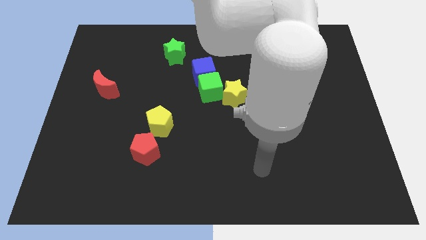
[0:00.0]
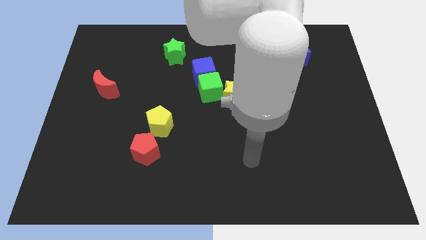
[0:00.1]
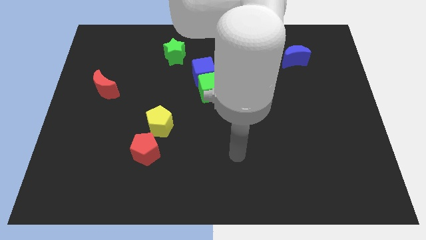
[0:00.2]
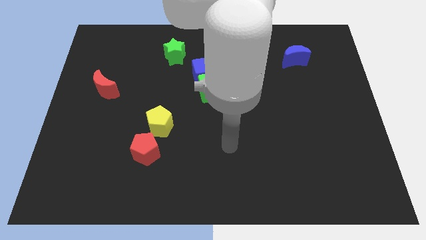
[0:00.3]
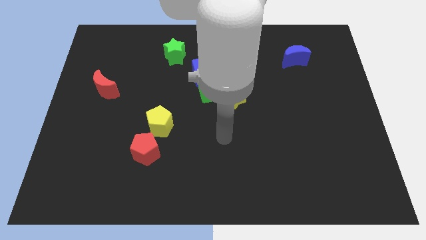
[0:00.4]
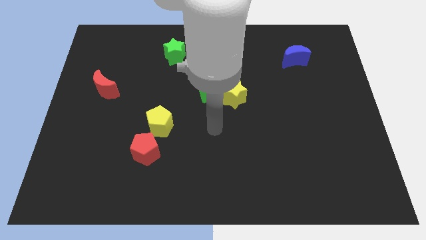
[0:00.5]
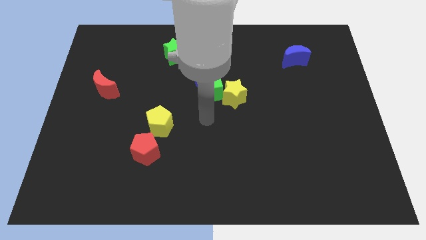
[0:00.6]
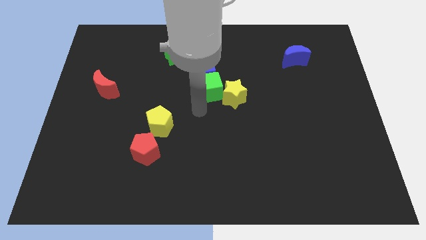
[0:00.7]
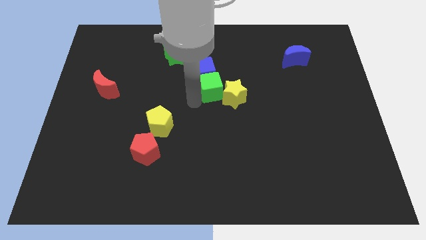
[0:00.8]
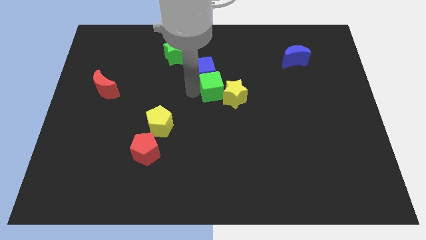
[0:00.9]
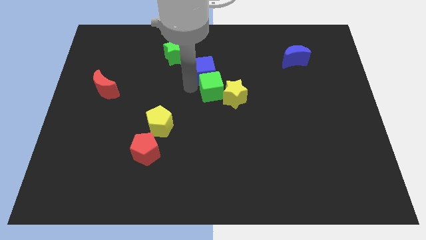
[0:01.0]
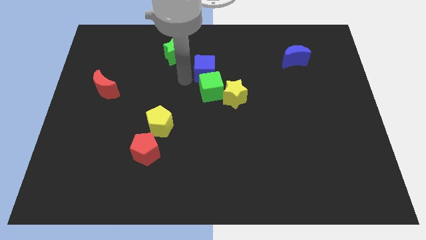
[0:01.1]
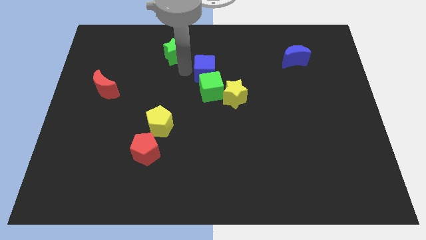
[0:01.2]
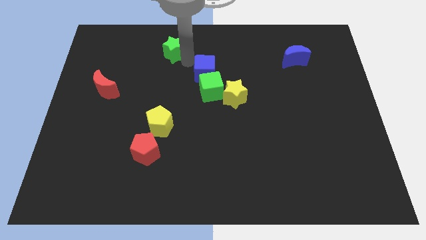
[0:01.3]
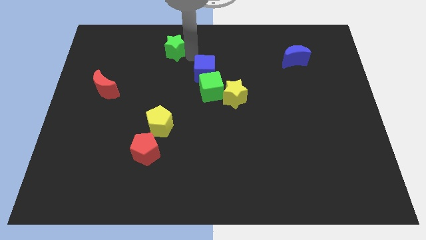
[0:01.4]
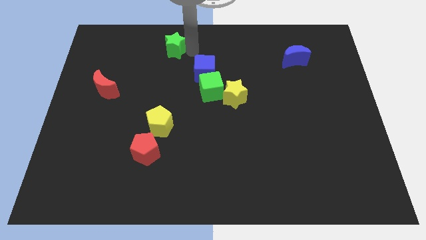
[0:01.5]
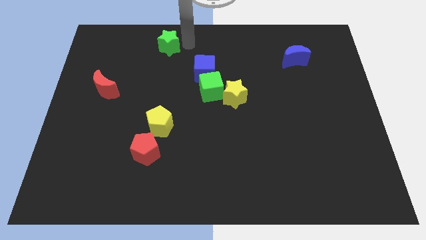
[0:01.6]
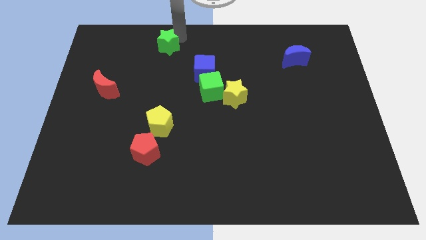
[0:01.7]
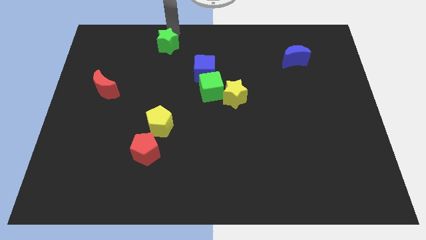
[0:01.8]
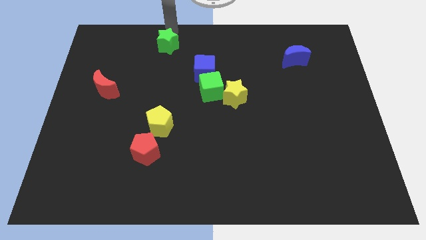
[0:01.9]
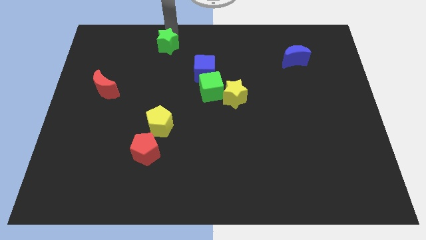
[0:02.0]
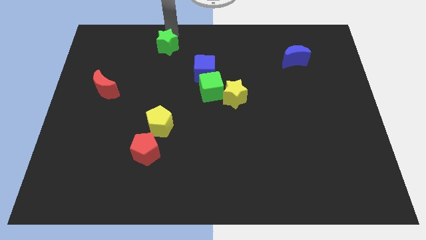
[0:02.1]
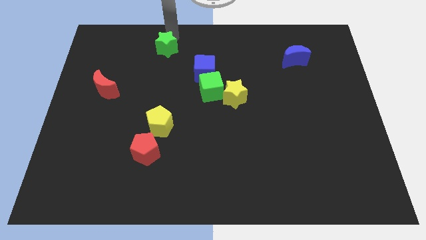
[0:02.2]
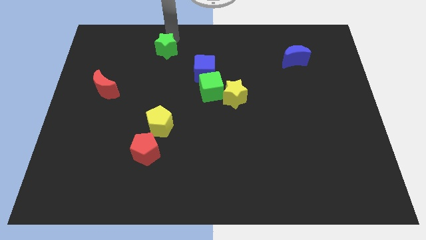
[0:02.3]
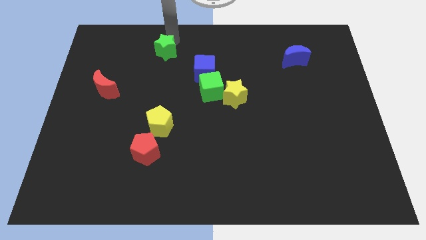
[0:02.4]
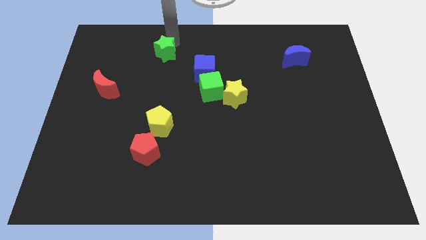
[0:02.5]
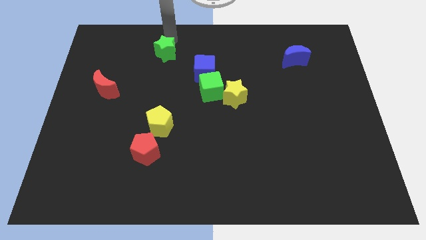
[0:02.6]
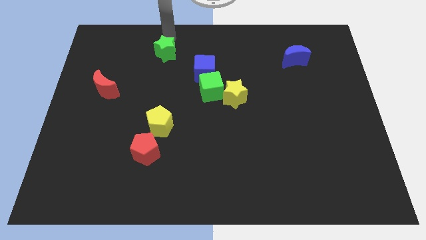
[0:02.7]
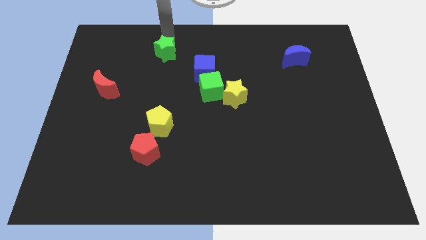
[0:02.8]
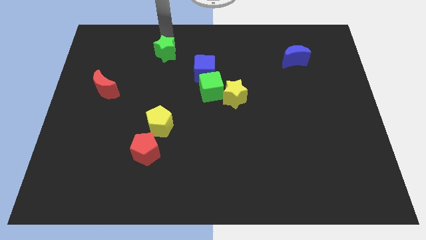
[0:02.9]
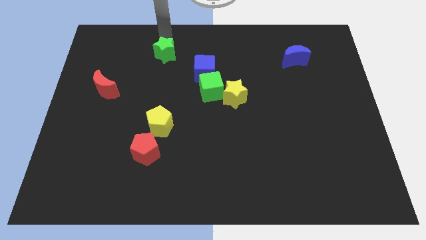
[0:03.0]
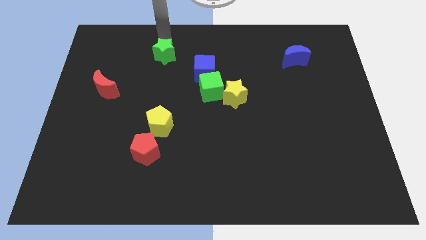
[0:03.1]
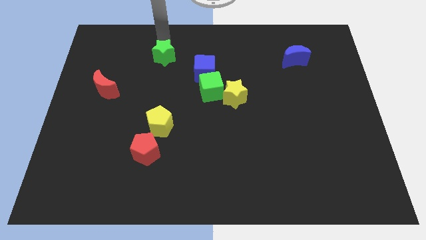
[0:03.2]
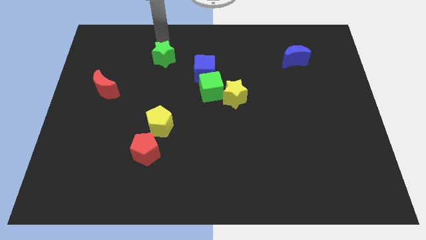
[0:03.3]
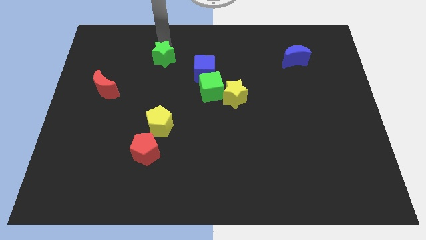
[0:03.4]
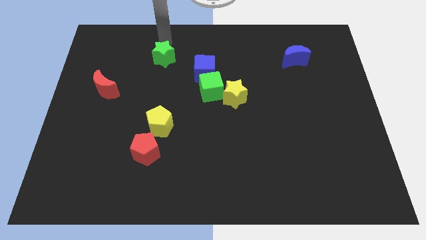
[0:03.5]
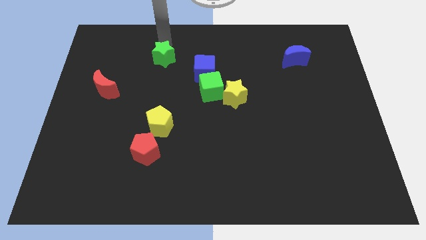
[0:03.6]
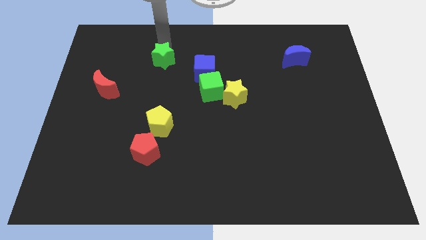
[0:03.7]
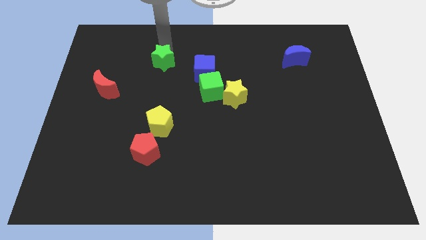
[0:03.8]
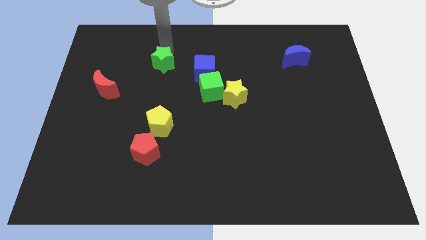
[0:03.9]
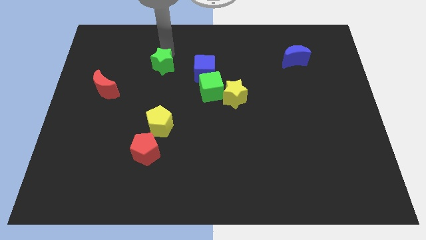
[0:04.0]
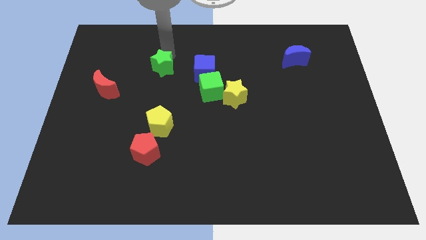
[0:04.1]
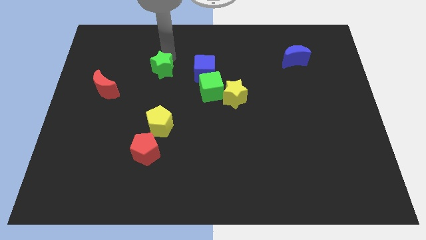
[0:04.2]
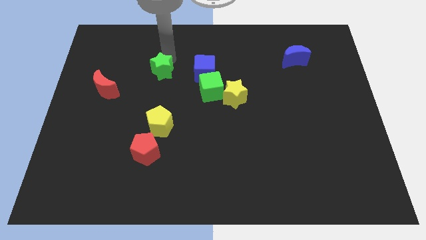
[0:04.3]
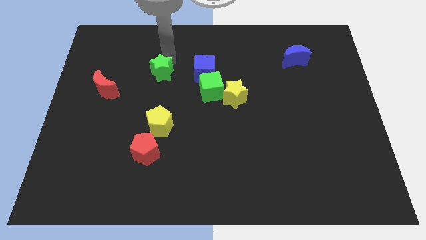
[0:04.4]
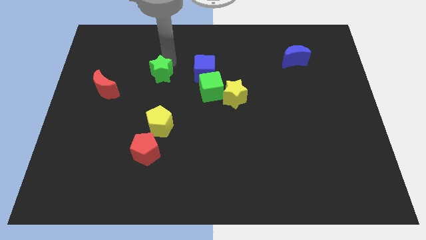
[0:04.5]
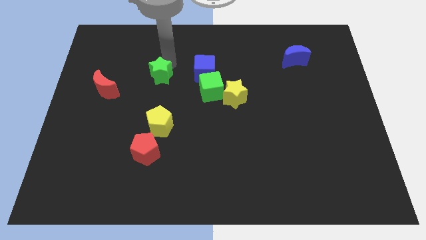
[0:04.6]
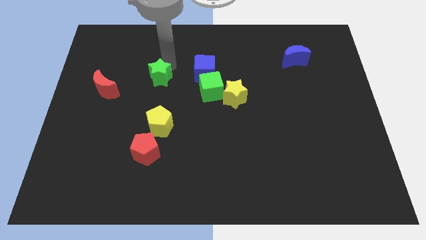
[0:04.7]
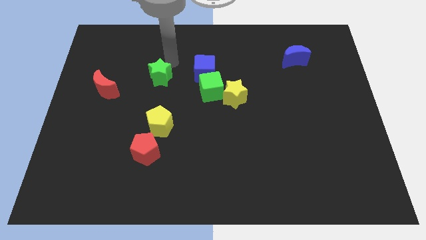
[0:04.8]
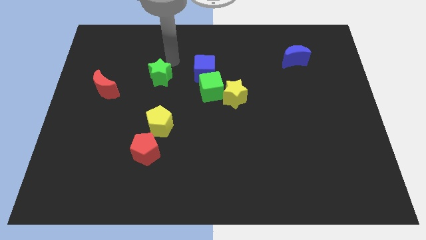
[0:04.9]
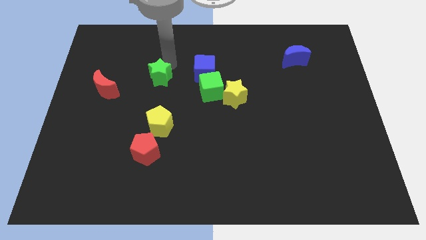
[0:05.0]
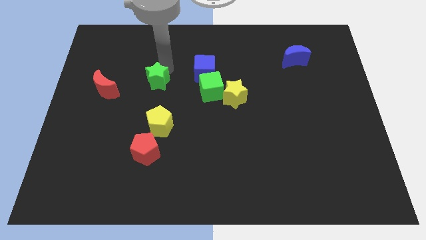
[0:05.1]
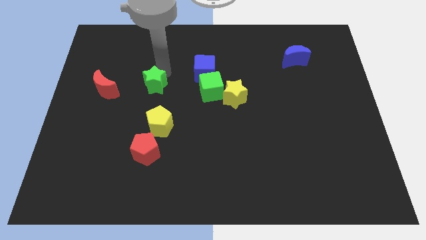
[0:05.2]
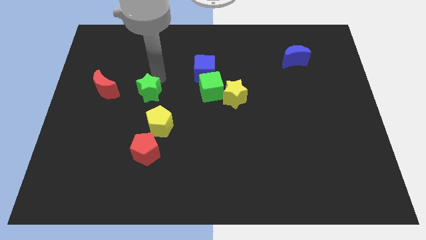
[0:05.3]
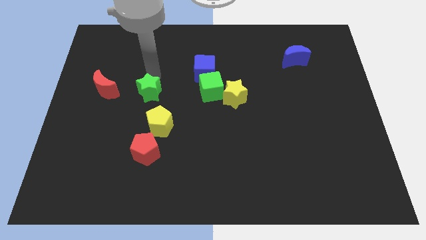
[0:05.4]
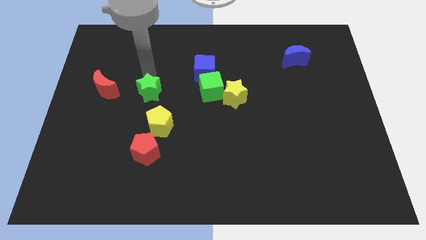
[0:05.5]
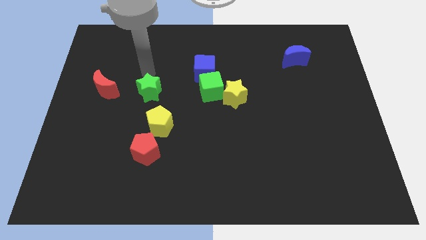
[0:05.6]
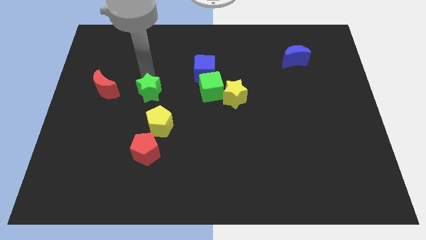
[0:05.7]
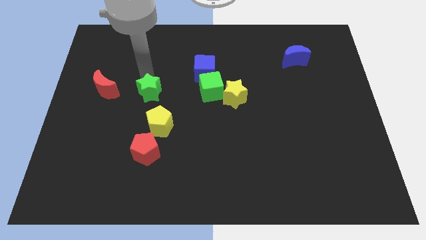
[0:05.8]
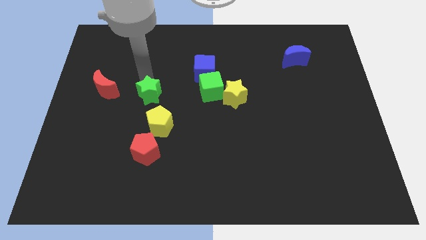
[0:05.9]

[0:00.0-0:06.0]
push the green star to the top side of the red pentagon
